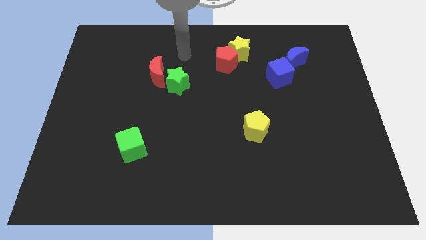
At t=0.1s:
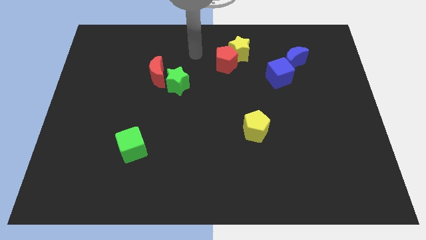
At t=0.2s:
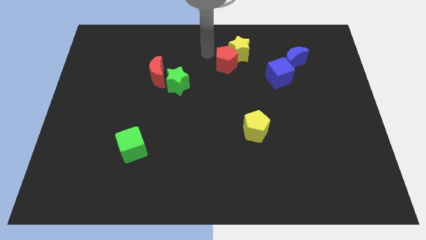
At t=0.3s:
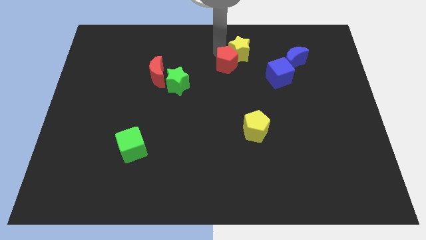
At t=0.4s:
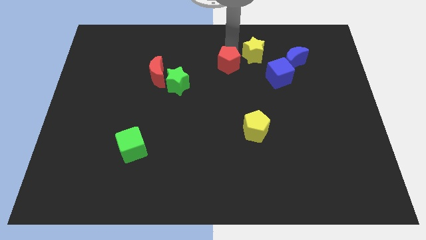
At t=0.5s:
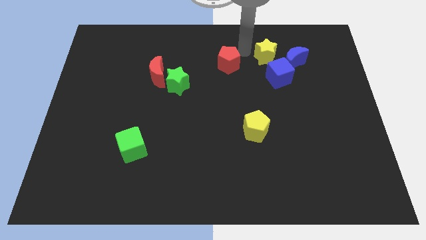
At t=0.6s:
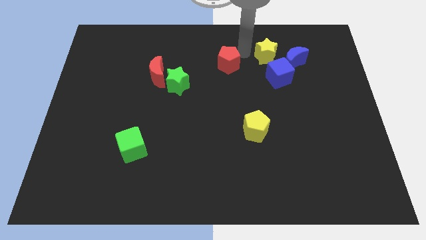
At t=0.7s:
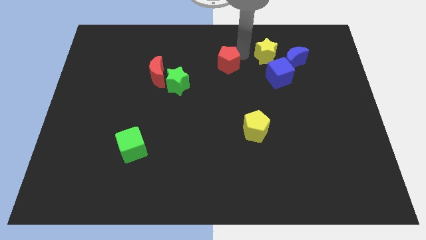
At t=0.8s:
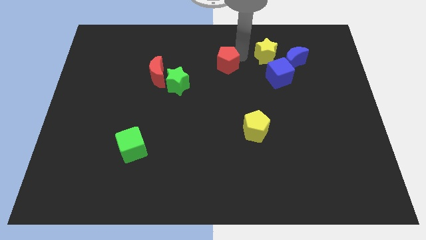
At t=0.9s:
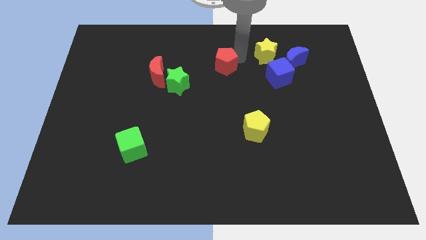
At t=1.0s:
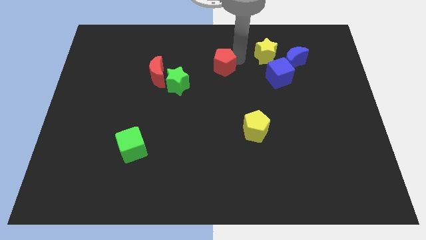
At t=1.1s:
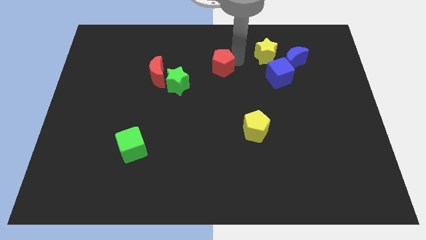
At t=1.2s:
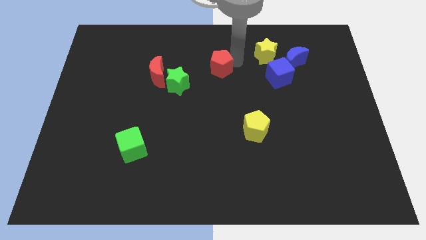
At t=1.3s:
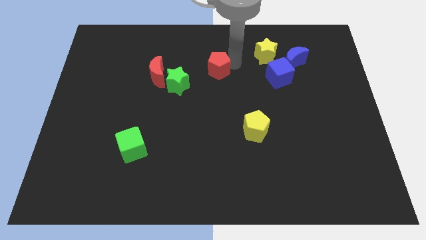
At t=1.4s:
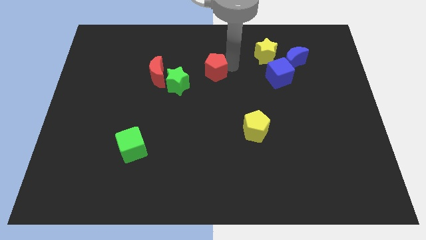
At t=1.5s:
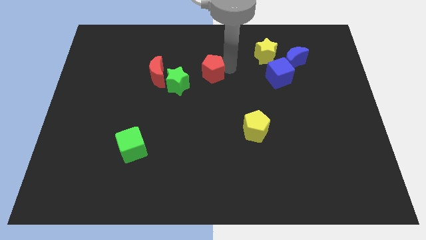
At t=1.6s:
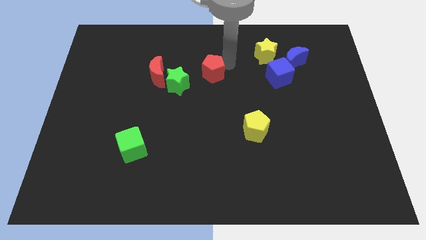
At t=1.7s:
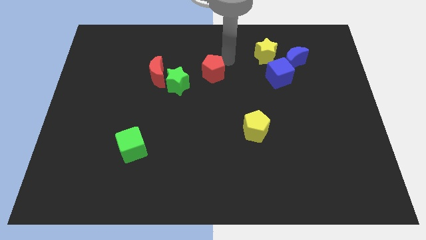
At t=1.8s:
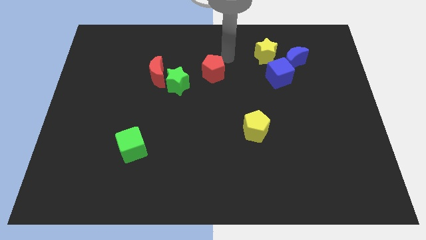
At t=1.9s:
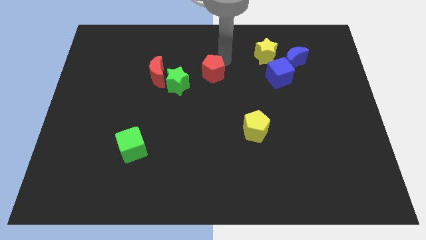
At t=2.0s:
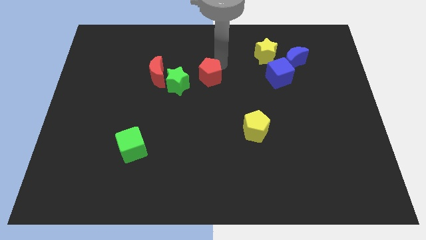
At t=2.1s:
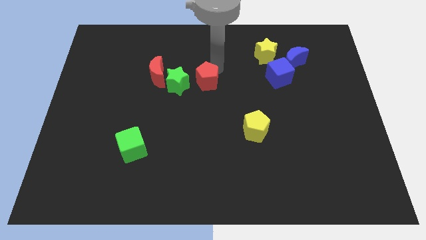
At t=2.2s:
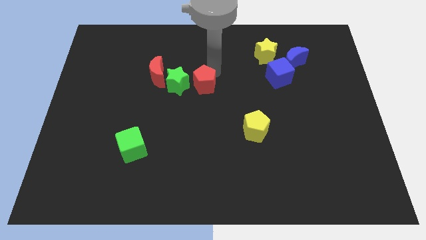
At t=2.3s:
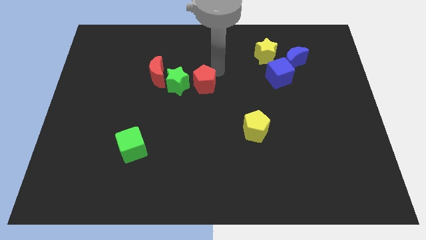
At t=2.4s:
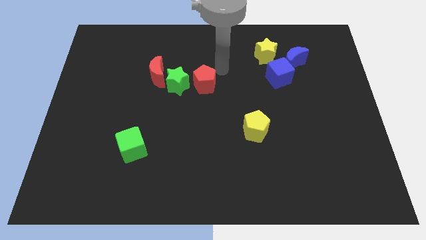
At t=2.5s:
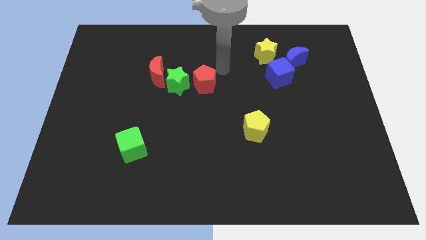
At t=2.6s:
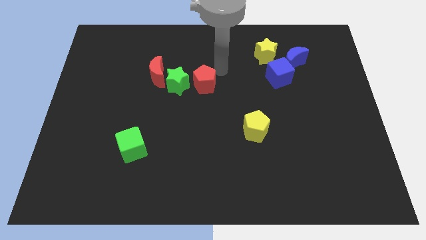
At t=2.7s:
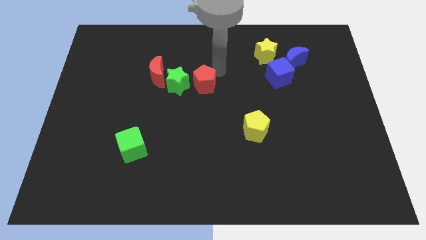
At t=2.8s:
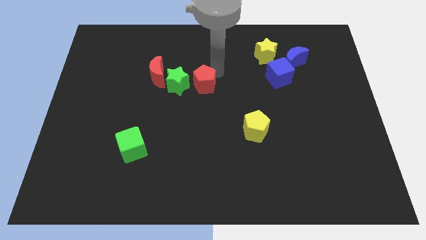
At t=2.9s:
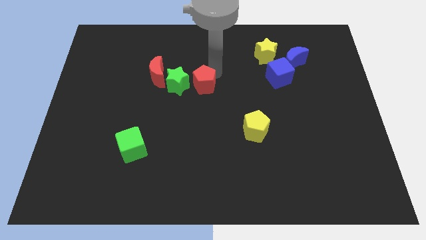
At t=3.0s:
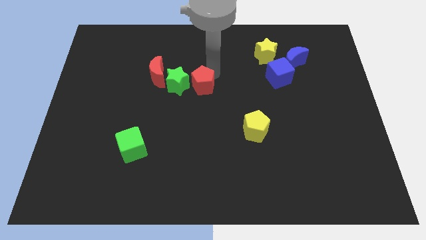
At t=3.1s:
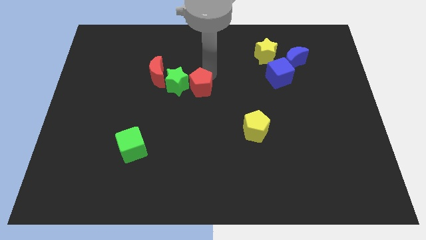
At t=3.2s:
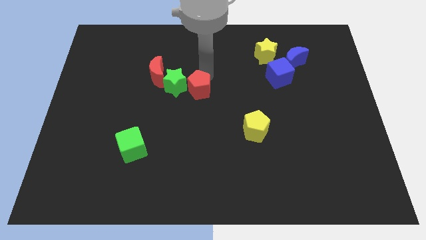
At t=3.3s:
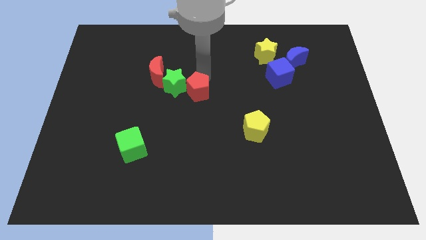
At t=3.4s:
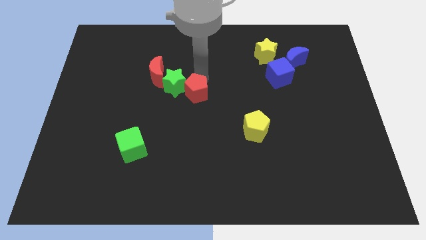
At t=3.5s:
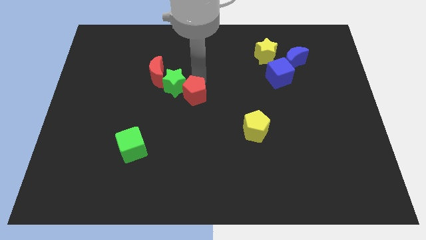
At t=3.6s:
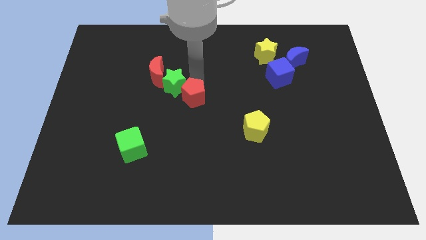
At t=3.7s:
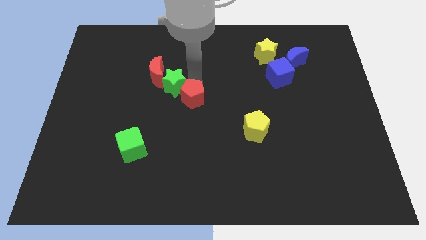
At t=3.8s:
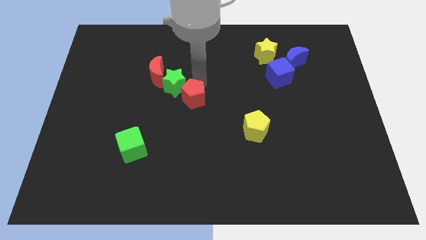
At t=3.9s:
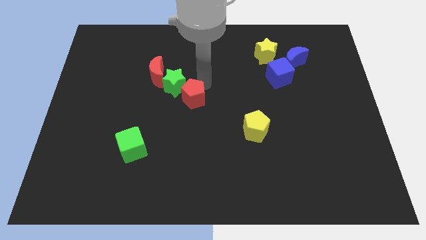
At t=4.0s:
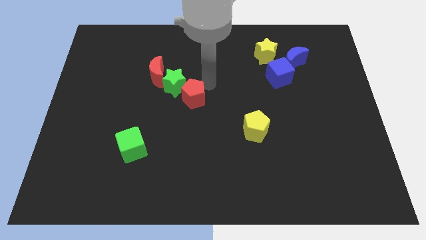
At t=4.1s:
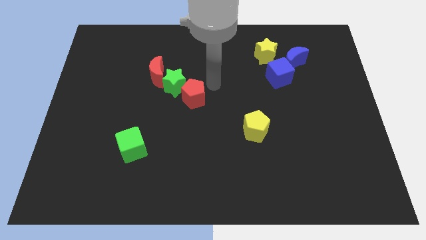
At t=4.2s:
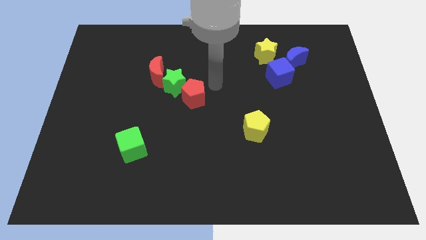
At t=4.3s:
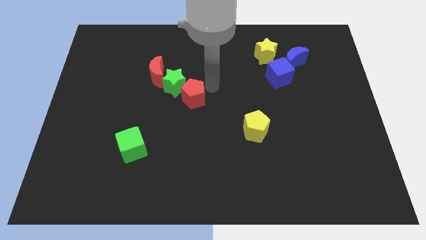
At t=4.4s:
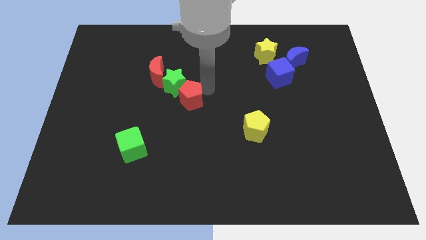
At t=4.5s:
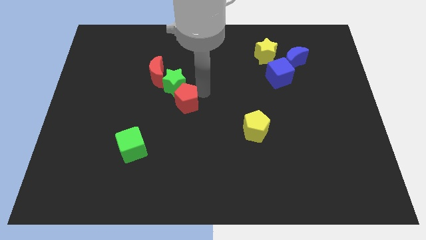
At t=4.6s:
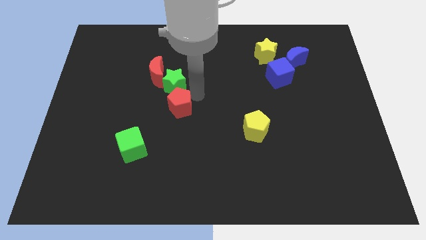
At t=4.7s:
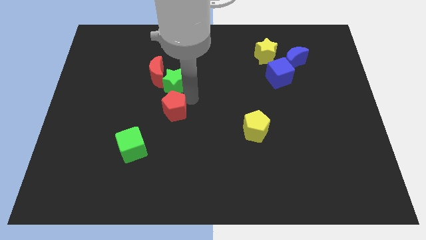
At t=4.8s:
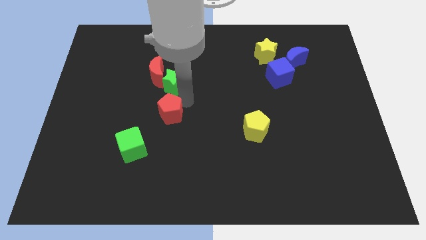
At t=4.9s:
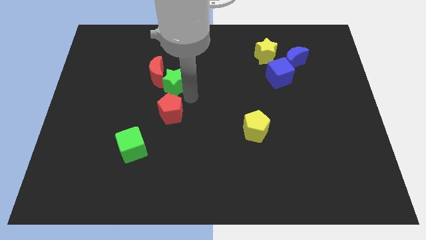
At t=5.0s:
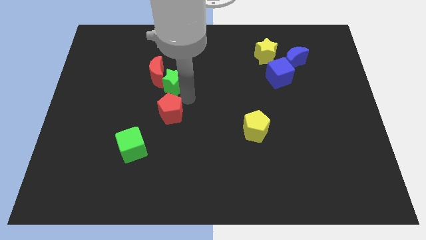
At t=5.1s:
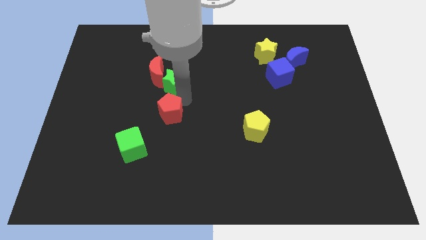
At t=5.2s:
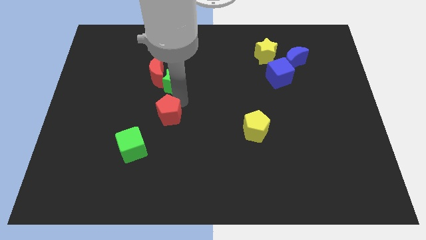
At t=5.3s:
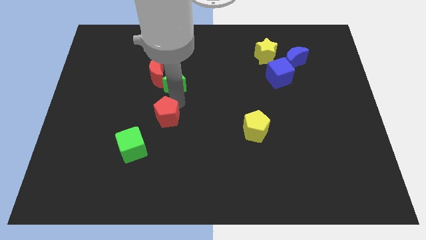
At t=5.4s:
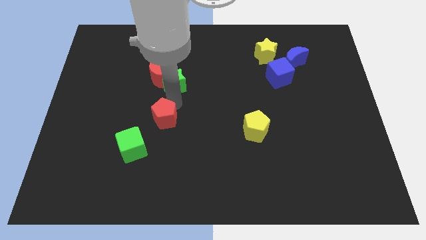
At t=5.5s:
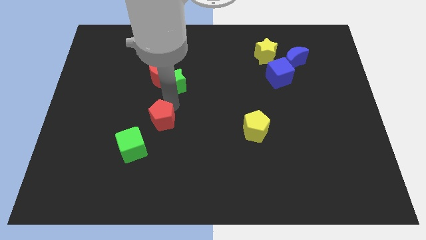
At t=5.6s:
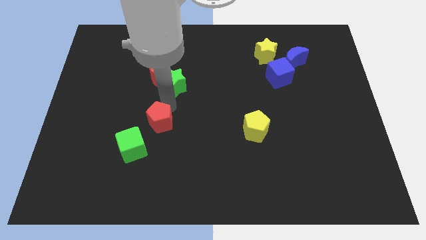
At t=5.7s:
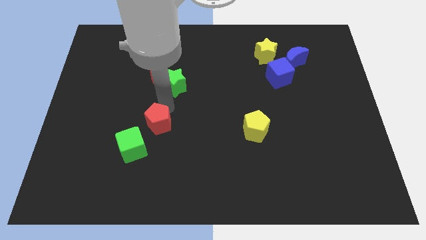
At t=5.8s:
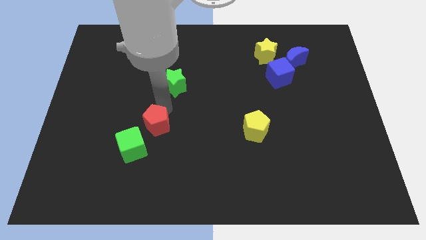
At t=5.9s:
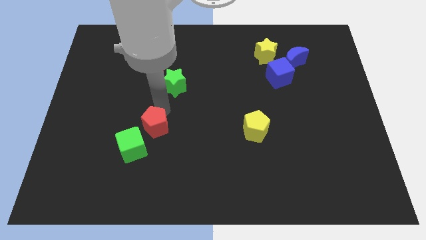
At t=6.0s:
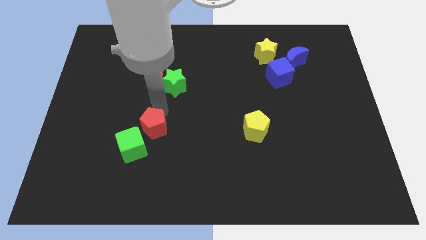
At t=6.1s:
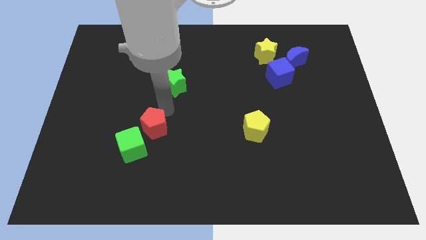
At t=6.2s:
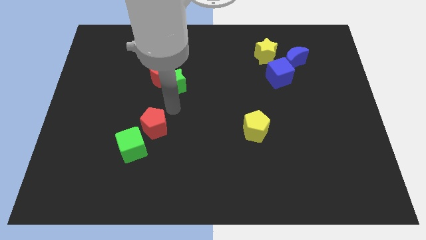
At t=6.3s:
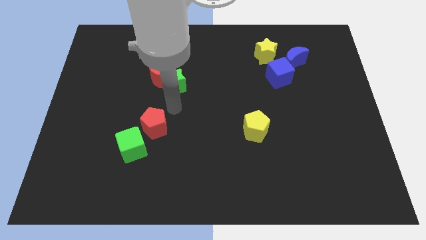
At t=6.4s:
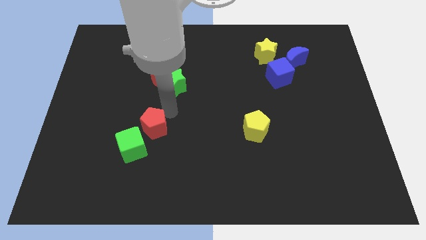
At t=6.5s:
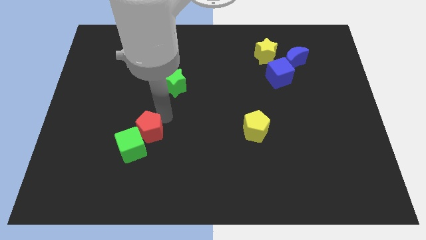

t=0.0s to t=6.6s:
move the red pentagon next to the green cube

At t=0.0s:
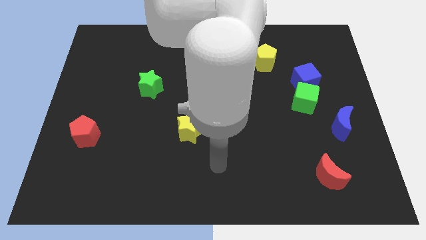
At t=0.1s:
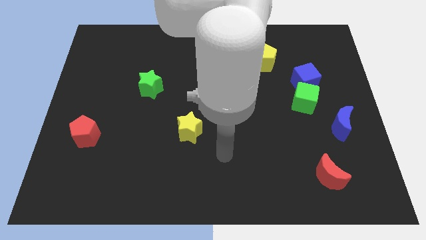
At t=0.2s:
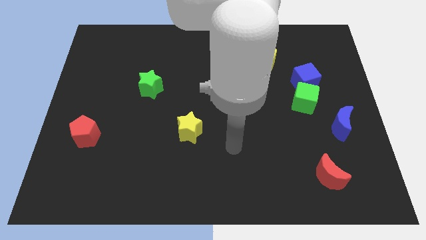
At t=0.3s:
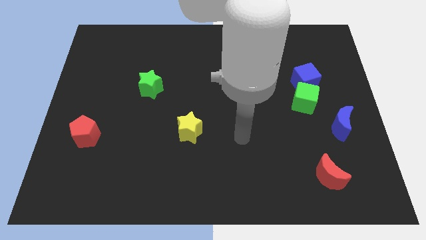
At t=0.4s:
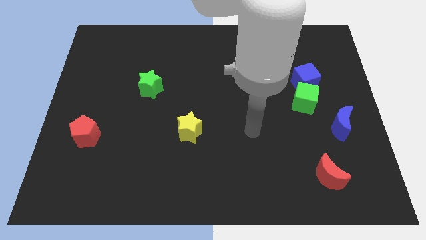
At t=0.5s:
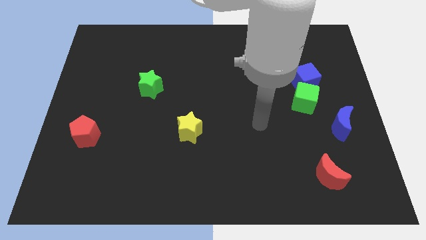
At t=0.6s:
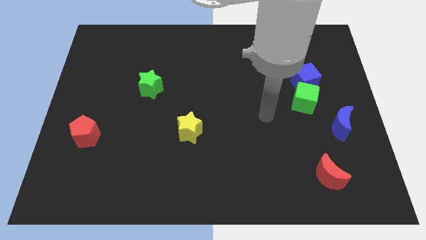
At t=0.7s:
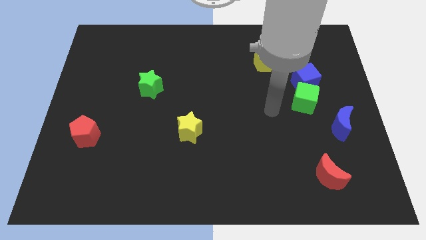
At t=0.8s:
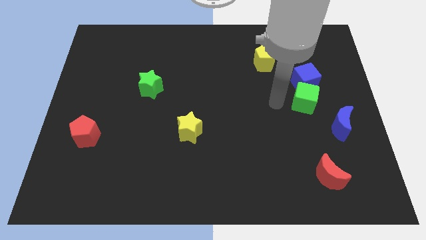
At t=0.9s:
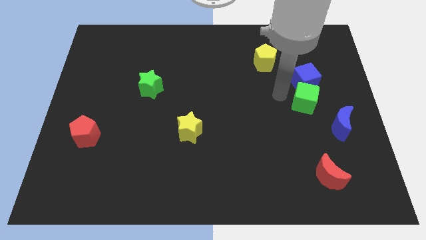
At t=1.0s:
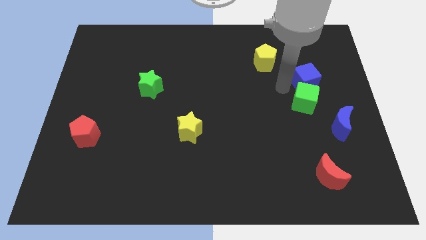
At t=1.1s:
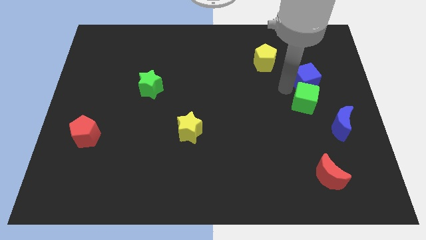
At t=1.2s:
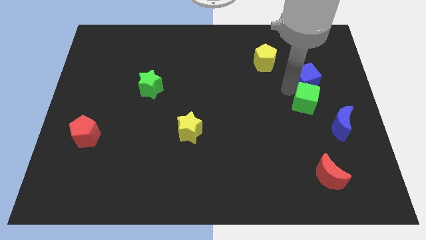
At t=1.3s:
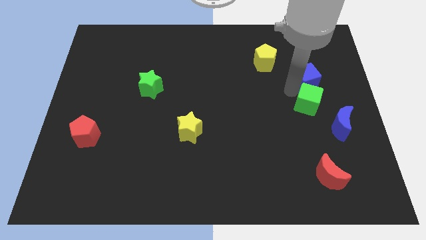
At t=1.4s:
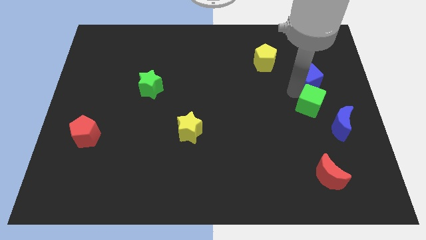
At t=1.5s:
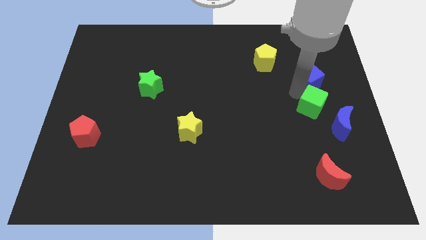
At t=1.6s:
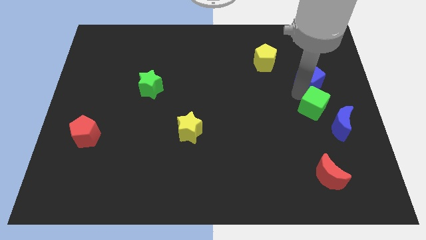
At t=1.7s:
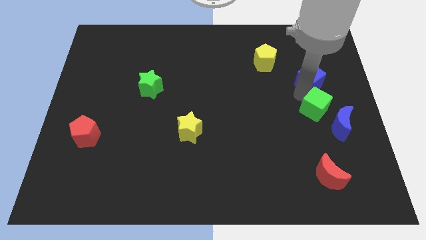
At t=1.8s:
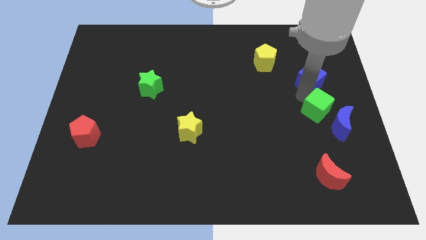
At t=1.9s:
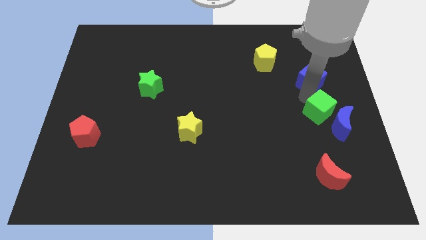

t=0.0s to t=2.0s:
put the green cube towards the blue moon
